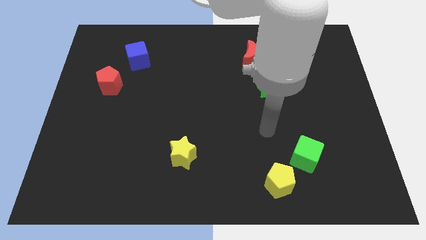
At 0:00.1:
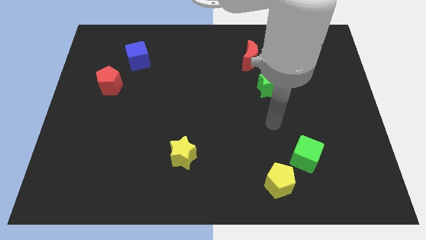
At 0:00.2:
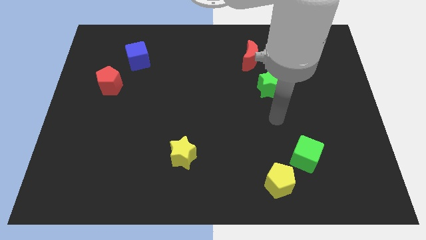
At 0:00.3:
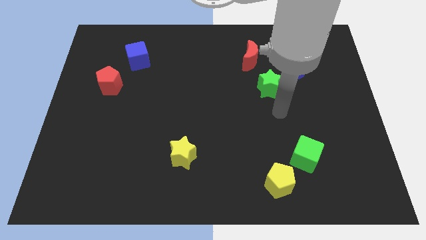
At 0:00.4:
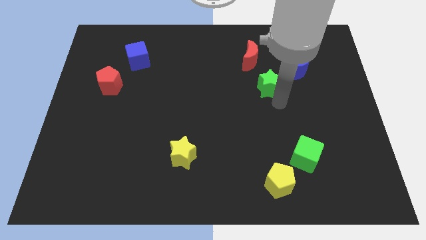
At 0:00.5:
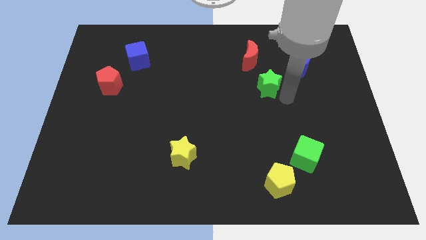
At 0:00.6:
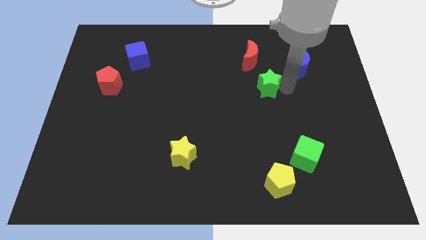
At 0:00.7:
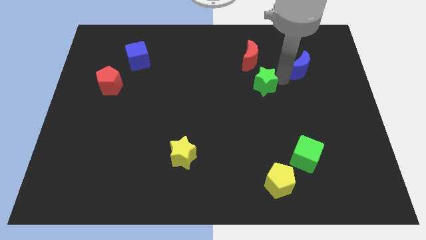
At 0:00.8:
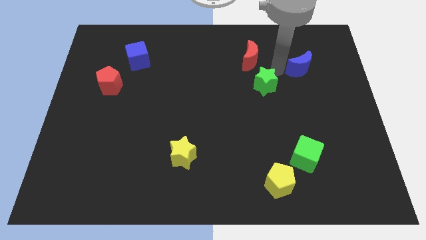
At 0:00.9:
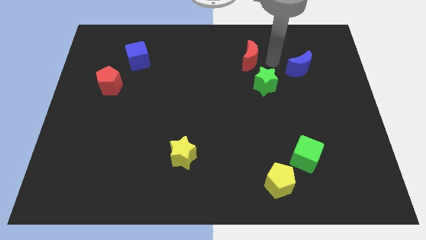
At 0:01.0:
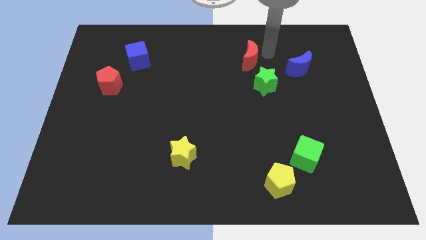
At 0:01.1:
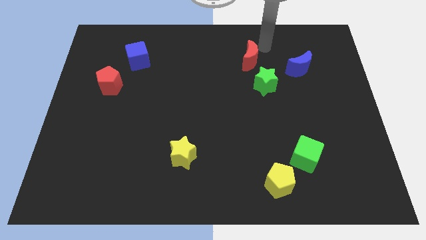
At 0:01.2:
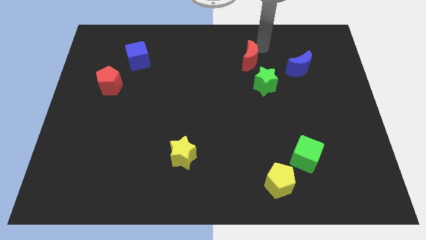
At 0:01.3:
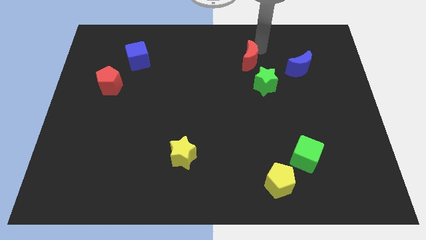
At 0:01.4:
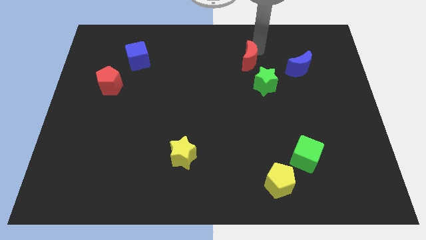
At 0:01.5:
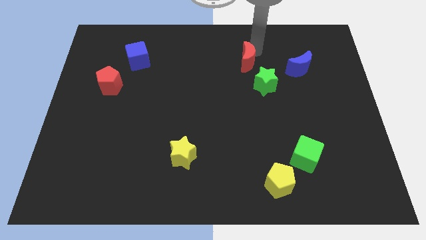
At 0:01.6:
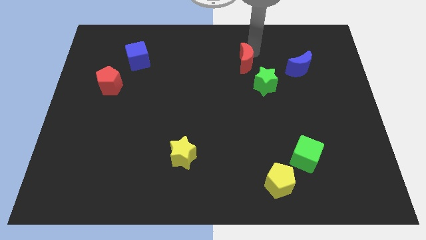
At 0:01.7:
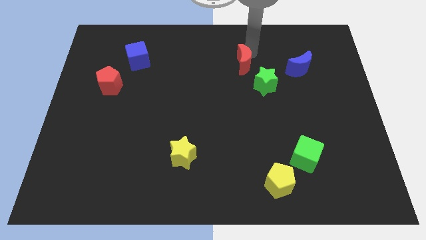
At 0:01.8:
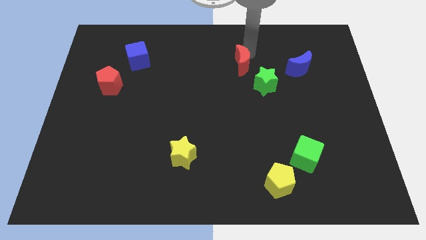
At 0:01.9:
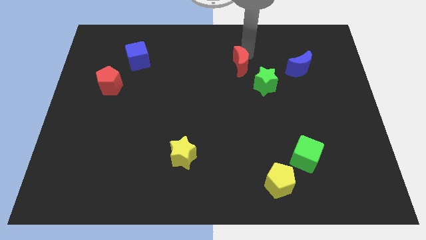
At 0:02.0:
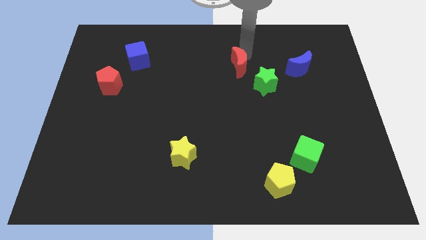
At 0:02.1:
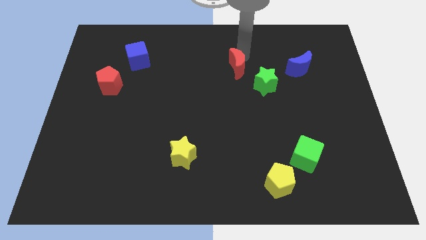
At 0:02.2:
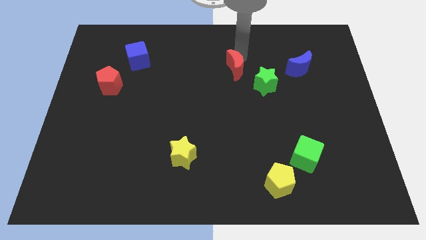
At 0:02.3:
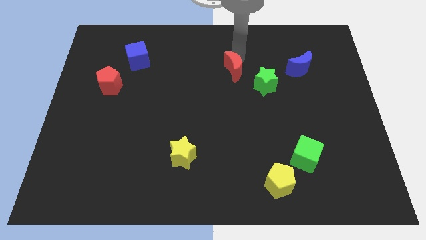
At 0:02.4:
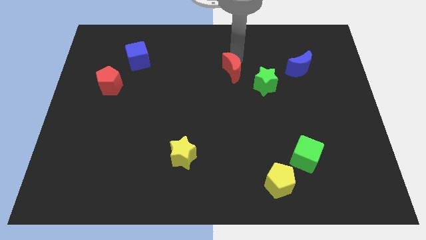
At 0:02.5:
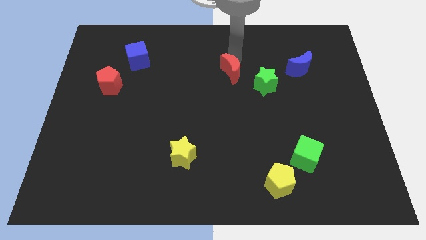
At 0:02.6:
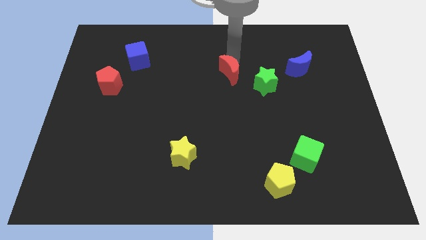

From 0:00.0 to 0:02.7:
push the red moon somewhat down and to the left

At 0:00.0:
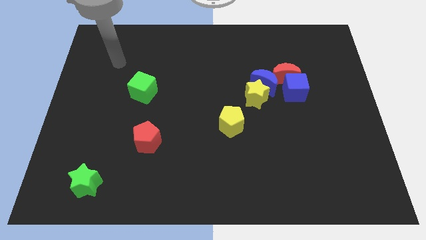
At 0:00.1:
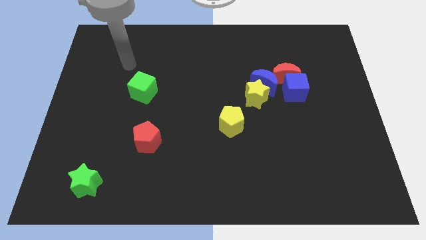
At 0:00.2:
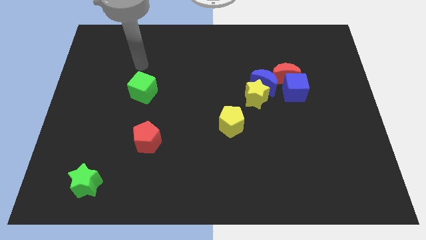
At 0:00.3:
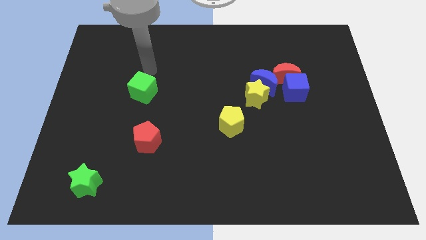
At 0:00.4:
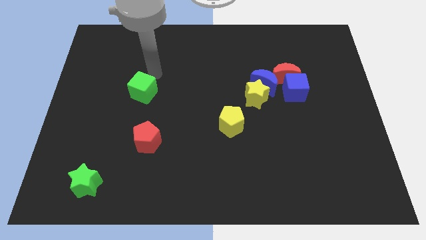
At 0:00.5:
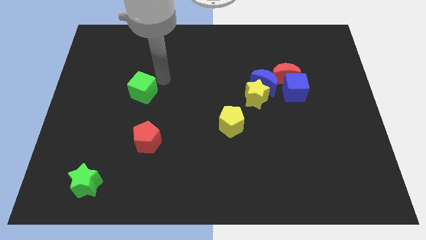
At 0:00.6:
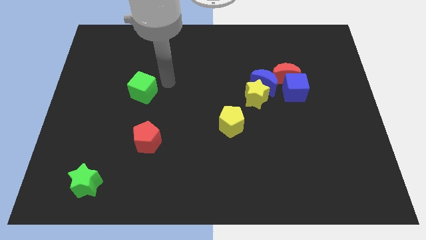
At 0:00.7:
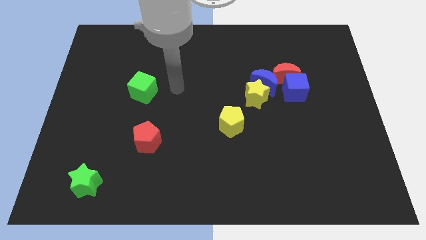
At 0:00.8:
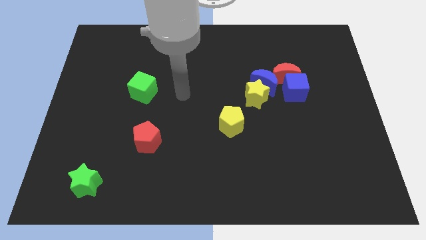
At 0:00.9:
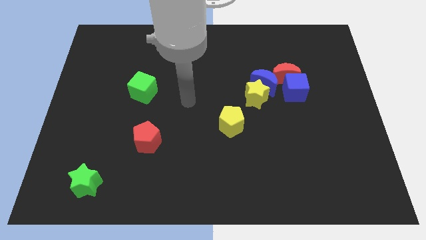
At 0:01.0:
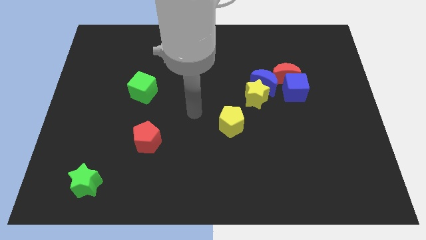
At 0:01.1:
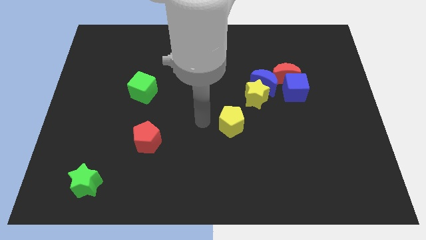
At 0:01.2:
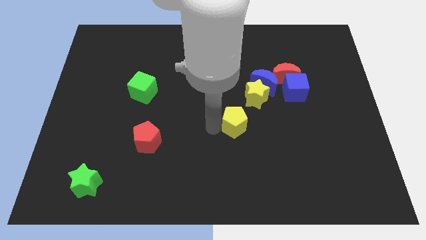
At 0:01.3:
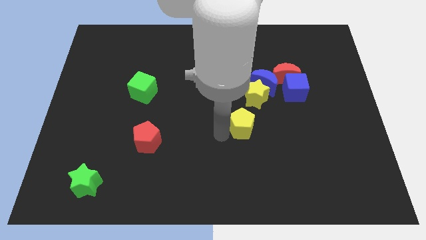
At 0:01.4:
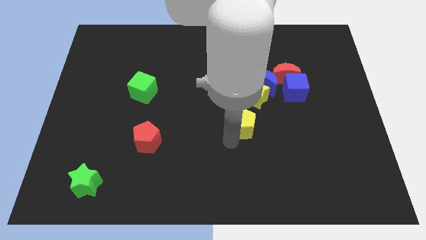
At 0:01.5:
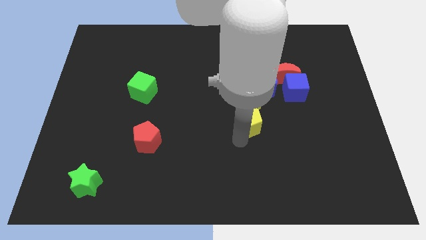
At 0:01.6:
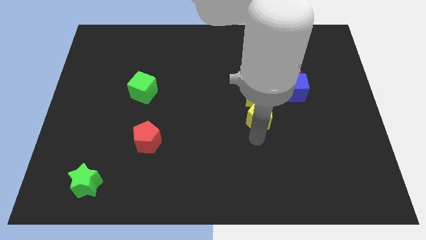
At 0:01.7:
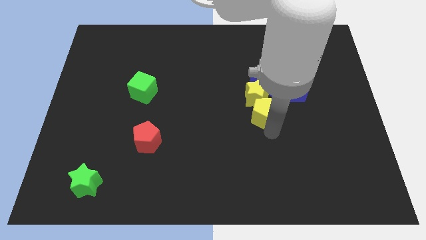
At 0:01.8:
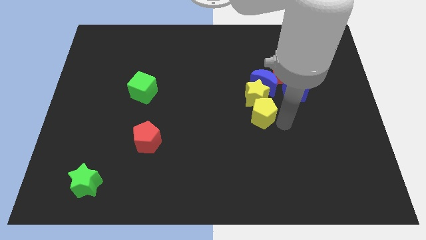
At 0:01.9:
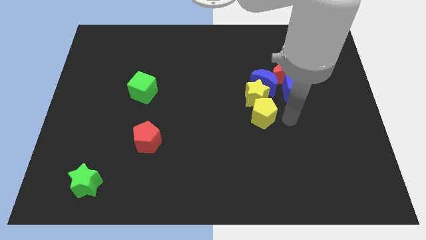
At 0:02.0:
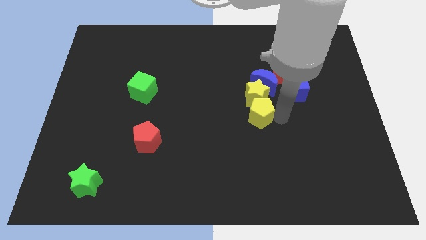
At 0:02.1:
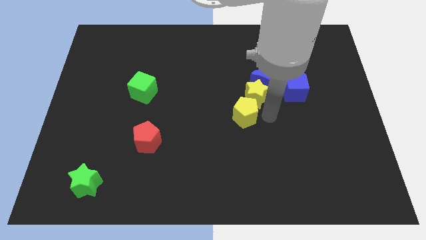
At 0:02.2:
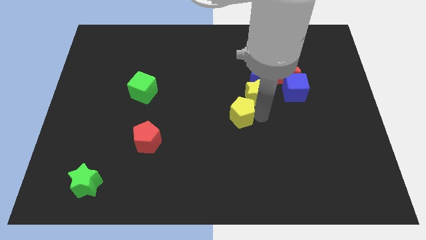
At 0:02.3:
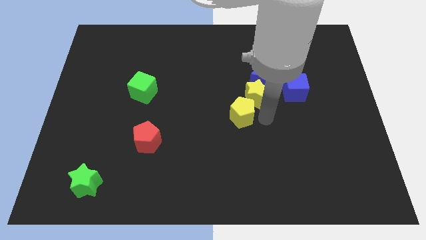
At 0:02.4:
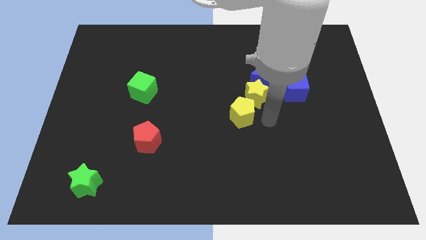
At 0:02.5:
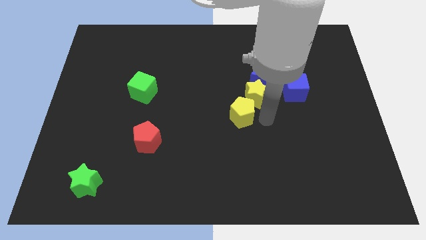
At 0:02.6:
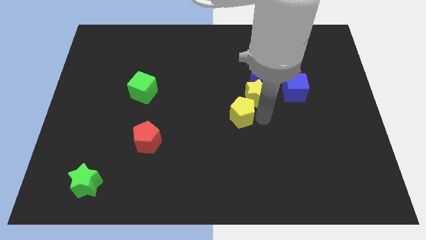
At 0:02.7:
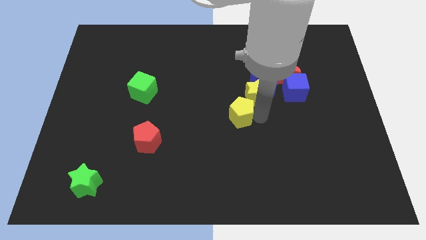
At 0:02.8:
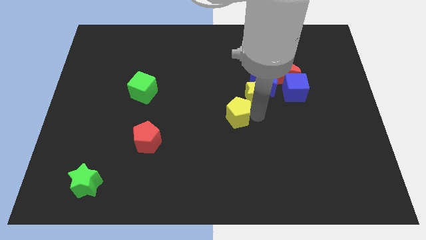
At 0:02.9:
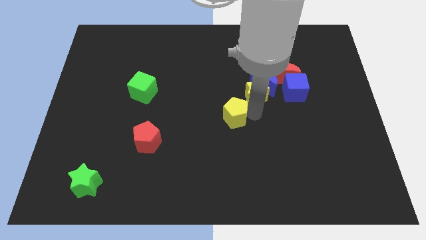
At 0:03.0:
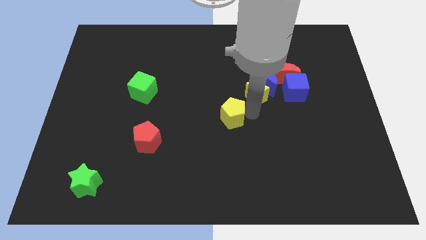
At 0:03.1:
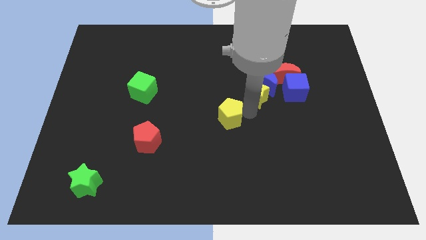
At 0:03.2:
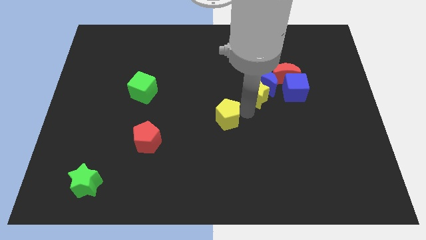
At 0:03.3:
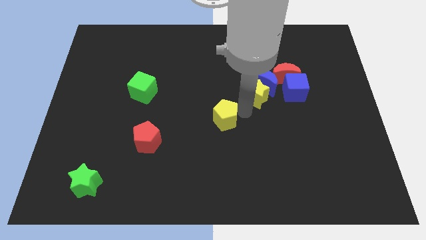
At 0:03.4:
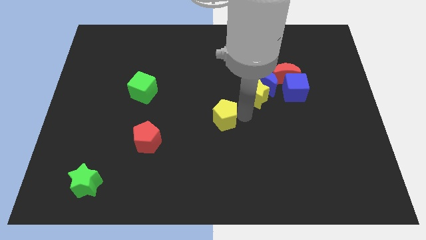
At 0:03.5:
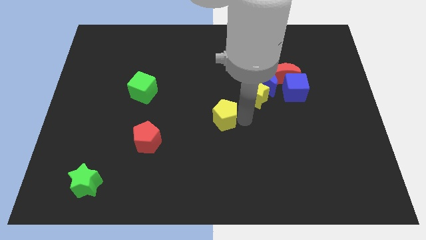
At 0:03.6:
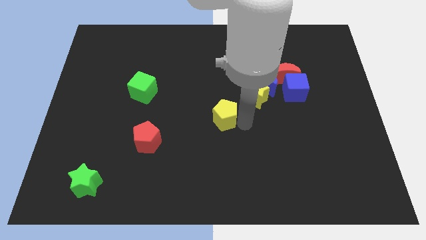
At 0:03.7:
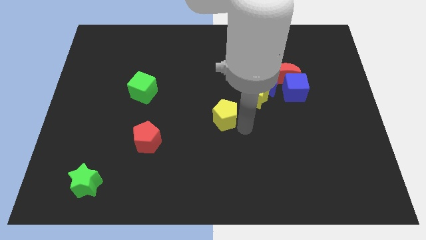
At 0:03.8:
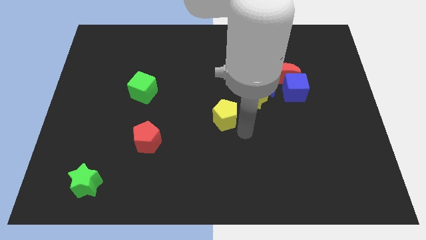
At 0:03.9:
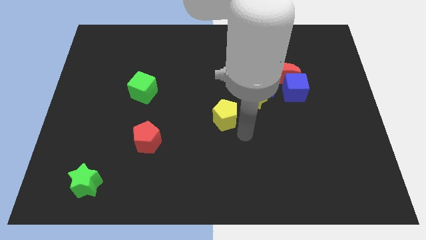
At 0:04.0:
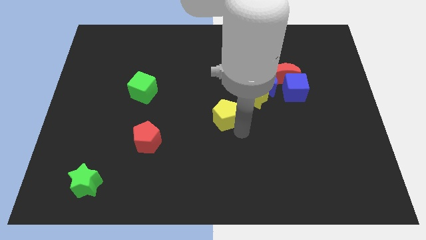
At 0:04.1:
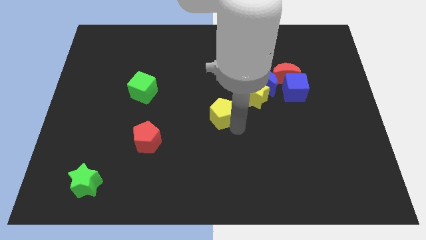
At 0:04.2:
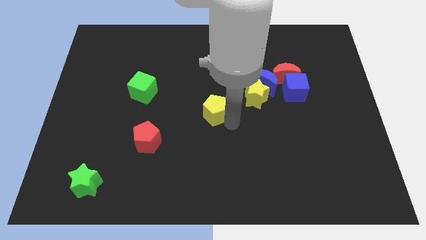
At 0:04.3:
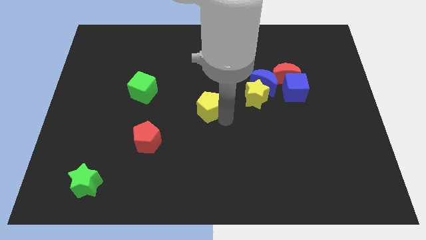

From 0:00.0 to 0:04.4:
move the yellow pentagon diagonally upwards and to the left a little

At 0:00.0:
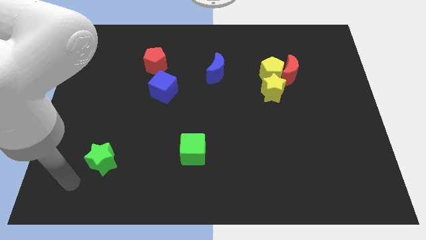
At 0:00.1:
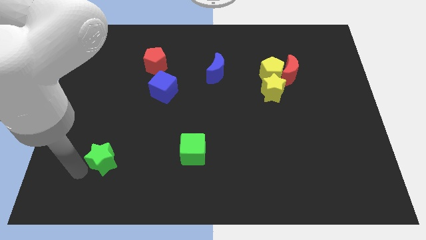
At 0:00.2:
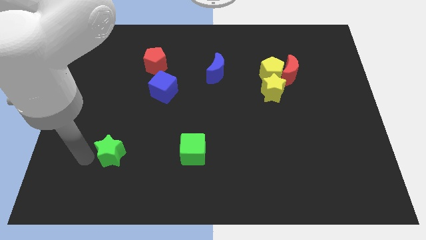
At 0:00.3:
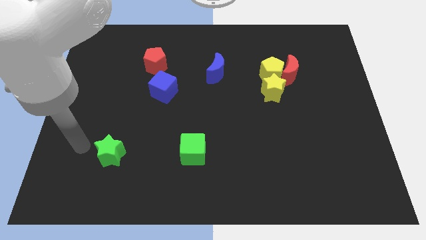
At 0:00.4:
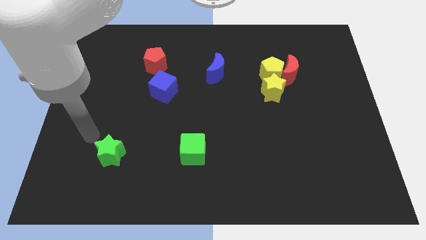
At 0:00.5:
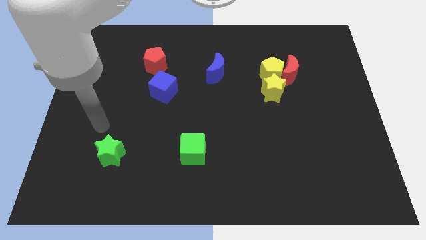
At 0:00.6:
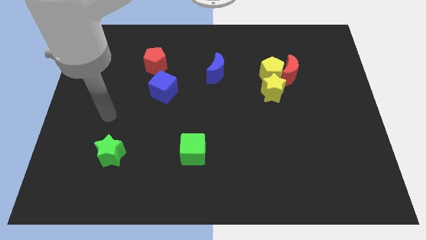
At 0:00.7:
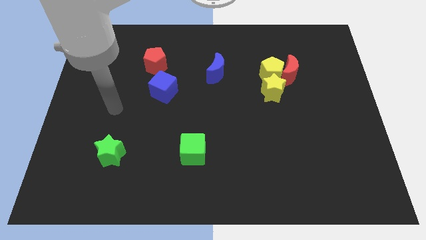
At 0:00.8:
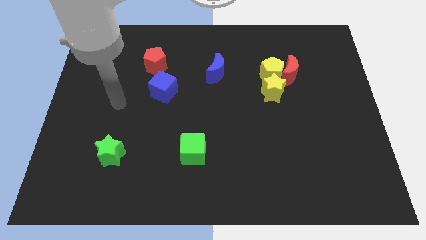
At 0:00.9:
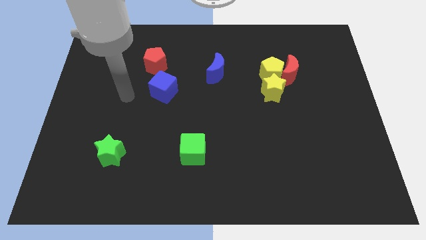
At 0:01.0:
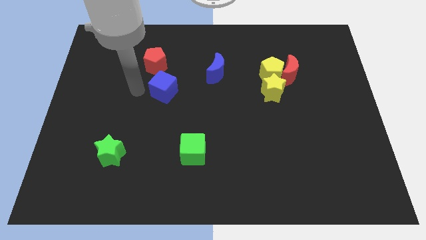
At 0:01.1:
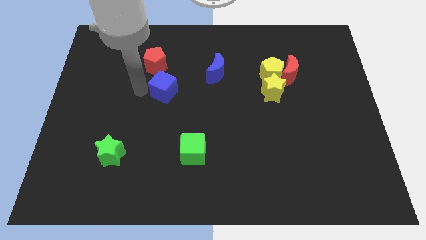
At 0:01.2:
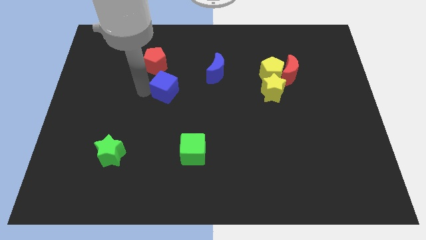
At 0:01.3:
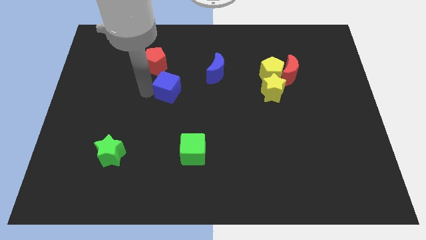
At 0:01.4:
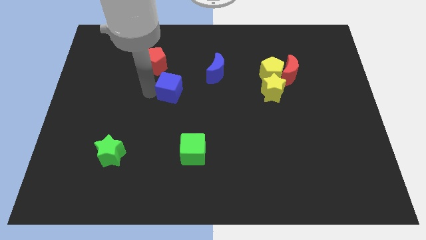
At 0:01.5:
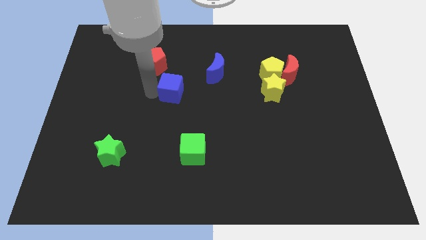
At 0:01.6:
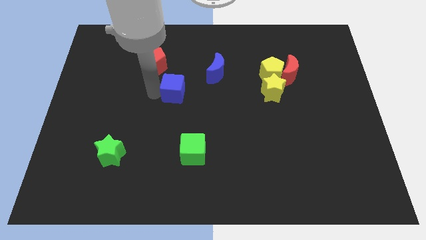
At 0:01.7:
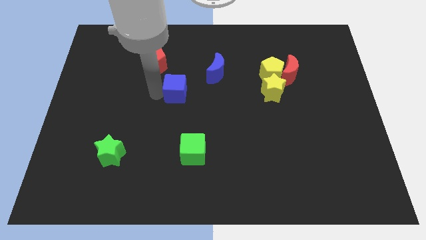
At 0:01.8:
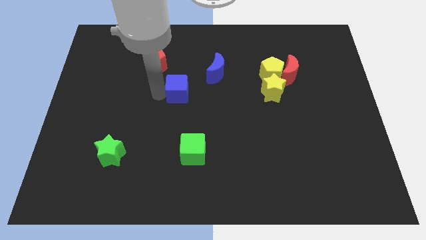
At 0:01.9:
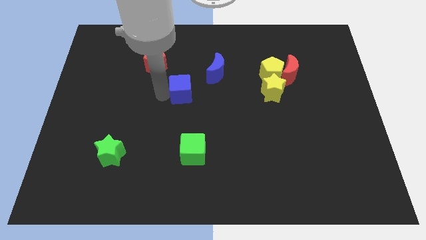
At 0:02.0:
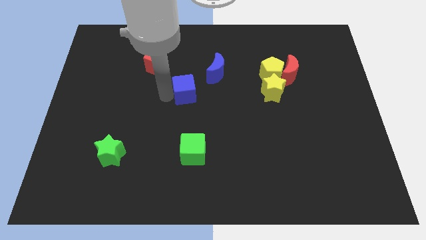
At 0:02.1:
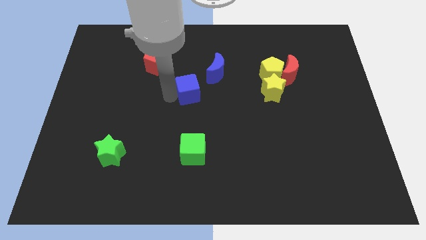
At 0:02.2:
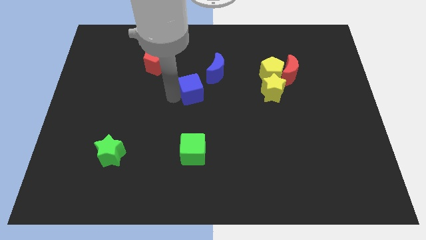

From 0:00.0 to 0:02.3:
push the blue cube slightly right
